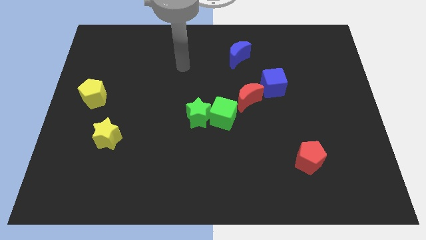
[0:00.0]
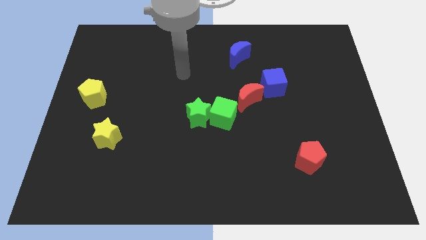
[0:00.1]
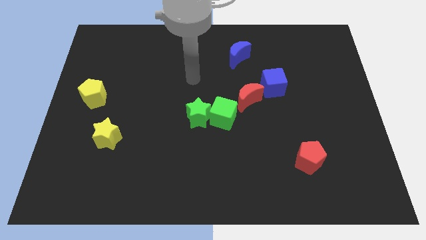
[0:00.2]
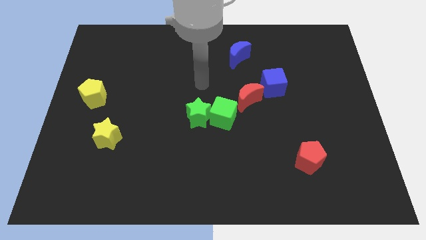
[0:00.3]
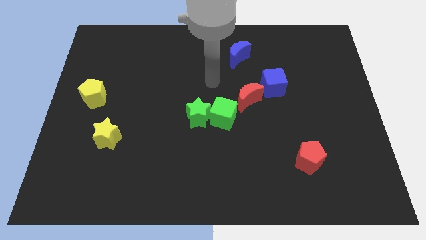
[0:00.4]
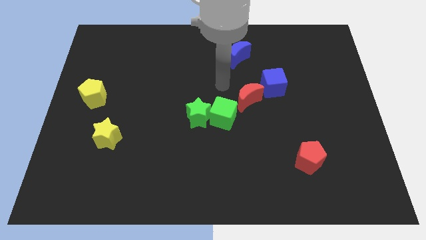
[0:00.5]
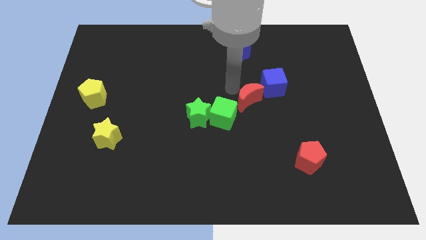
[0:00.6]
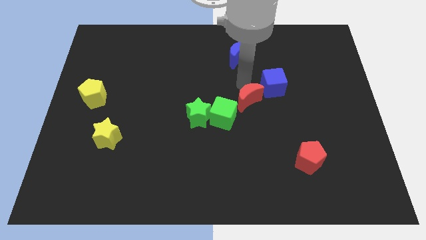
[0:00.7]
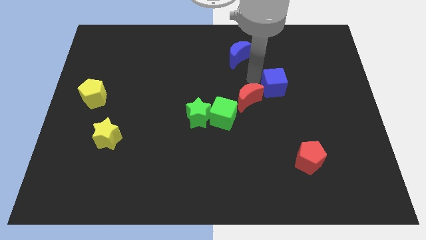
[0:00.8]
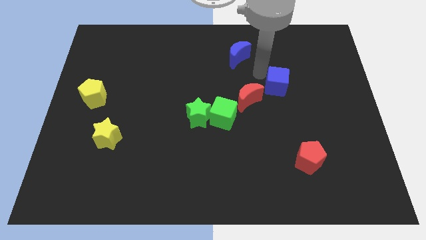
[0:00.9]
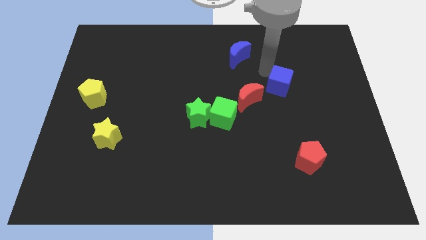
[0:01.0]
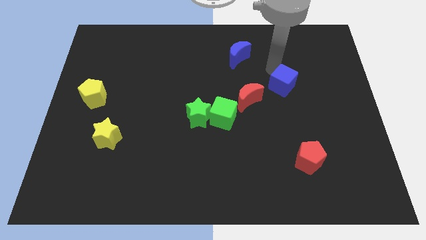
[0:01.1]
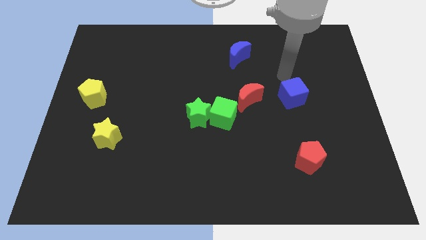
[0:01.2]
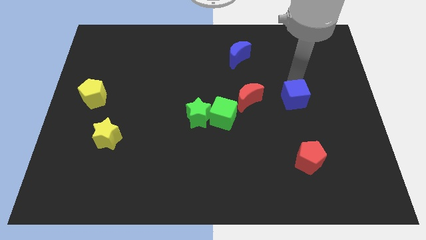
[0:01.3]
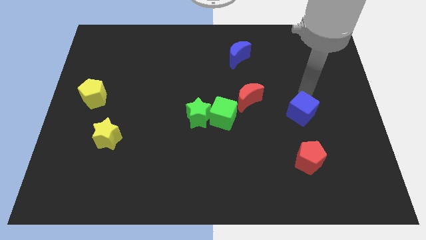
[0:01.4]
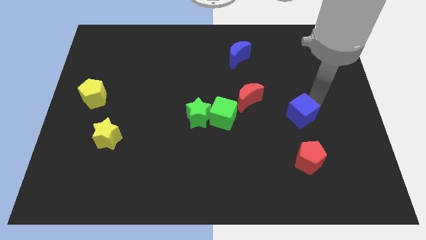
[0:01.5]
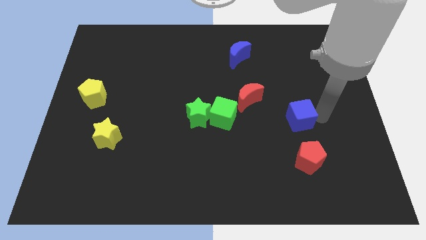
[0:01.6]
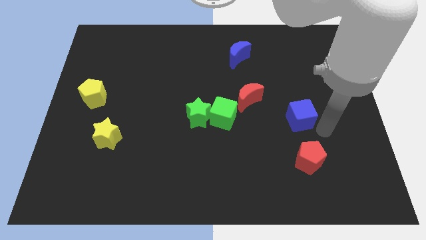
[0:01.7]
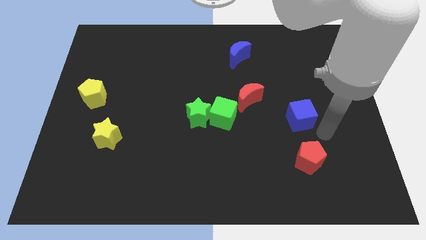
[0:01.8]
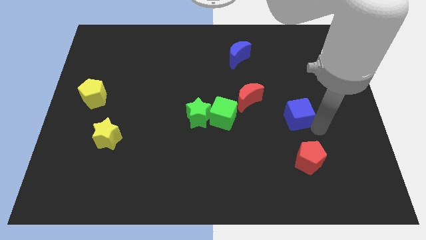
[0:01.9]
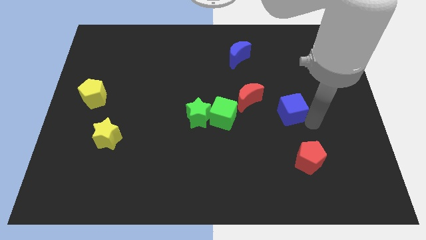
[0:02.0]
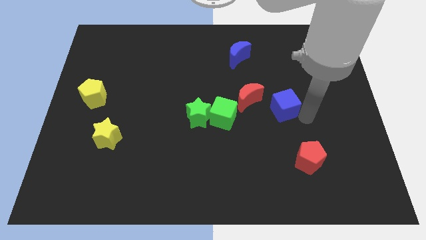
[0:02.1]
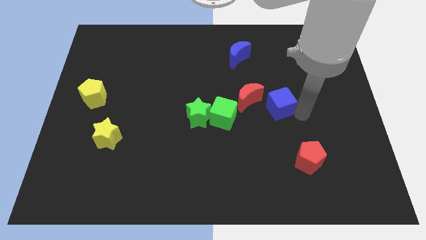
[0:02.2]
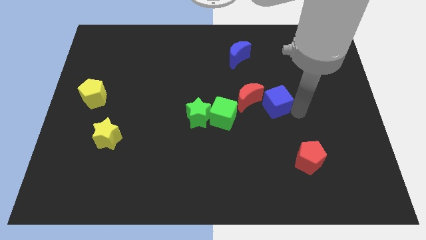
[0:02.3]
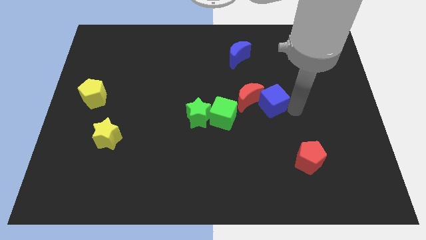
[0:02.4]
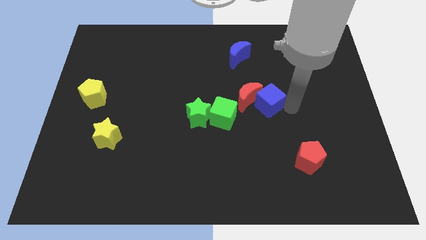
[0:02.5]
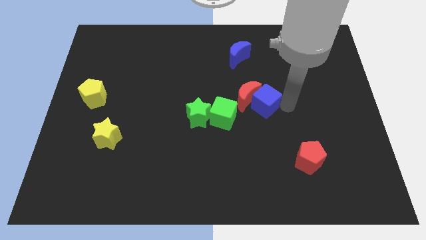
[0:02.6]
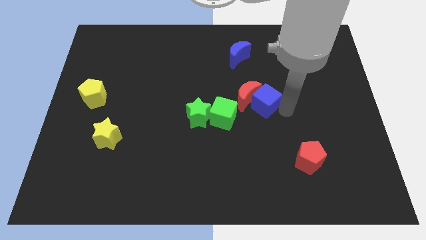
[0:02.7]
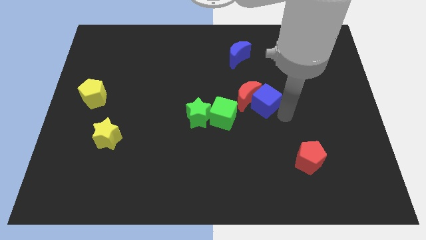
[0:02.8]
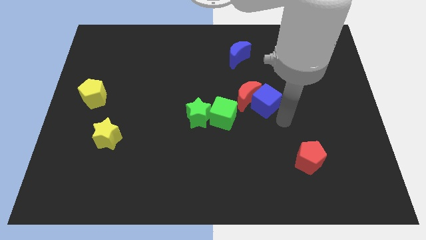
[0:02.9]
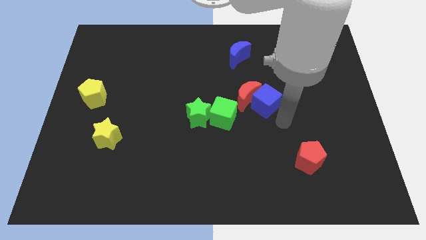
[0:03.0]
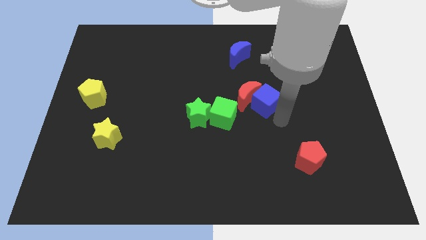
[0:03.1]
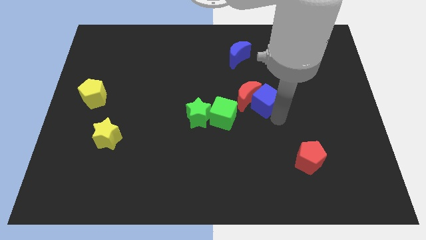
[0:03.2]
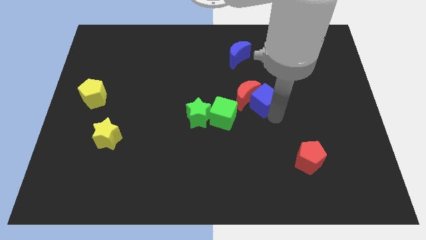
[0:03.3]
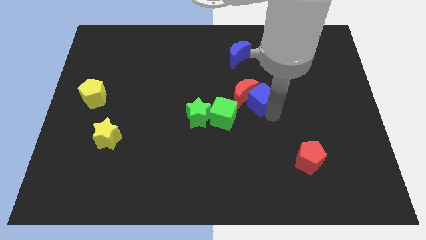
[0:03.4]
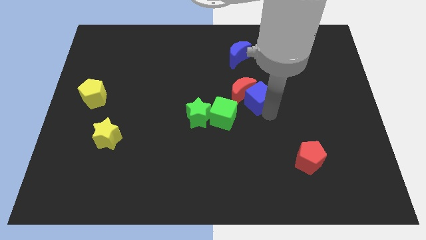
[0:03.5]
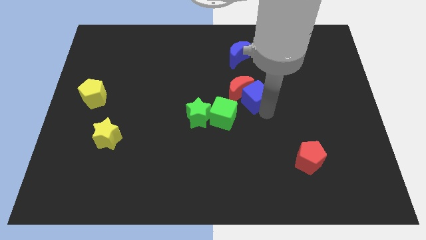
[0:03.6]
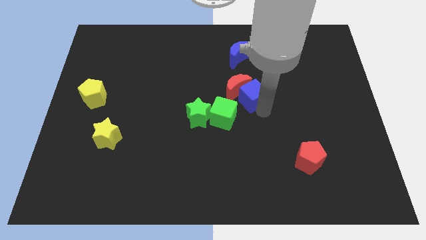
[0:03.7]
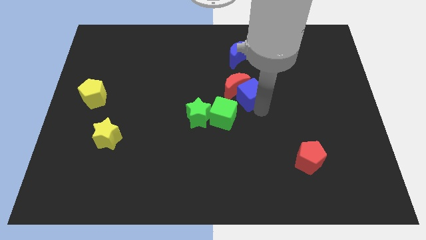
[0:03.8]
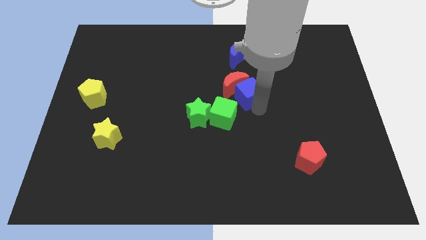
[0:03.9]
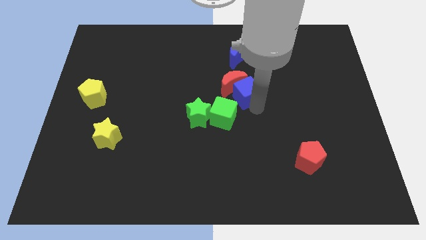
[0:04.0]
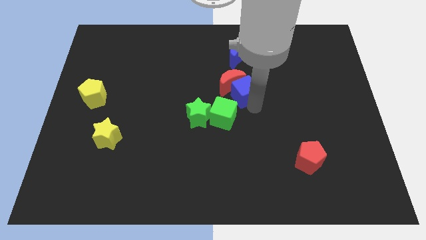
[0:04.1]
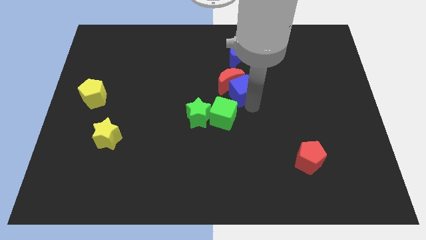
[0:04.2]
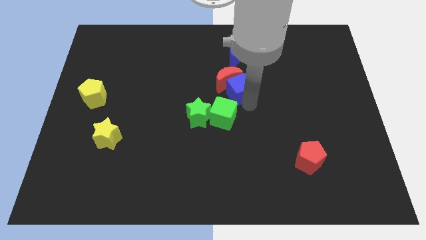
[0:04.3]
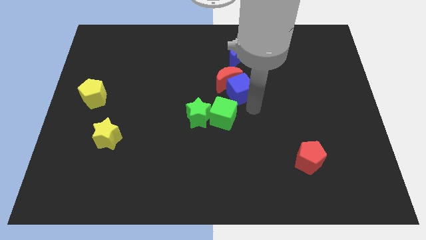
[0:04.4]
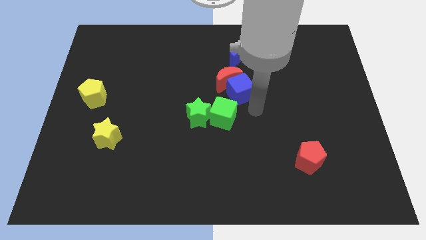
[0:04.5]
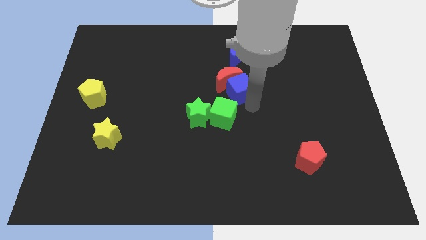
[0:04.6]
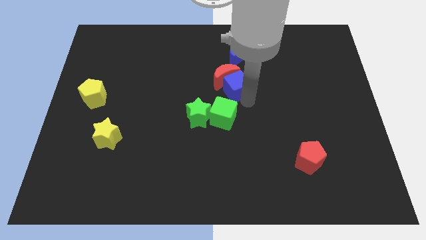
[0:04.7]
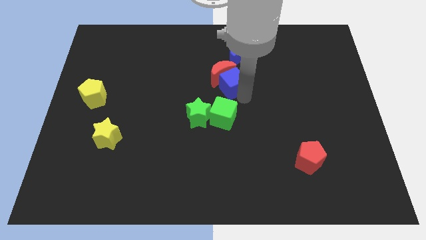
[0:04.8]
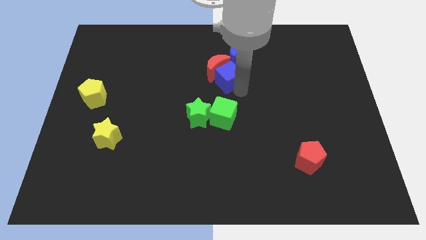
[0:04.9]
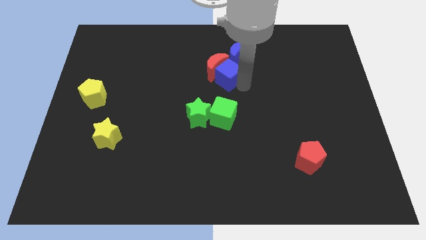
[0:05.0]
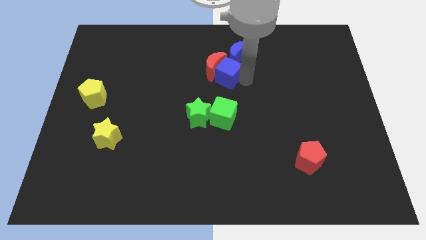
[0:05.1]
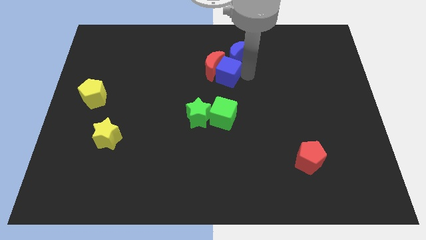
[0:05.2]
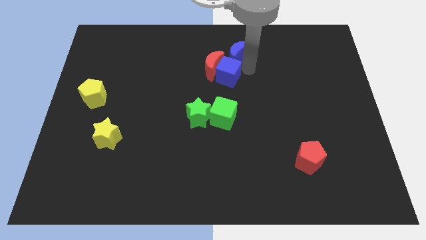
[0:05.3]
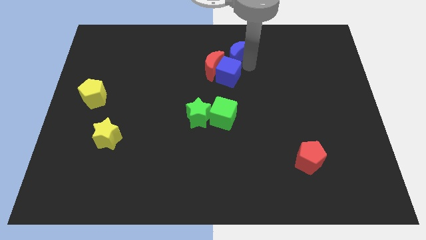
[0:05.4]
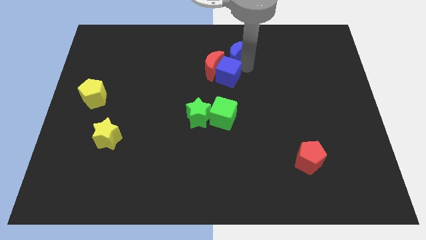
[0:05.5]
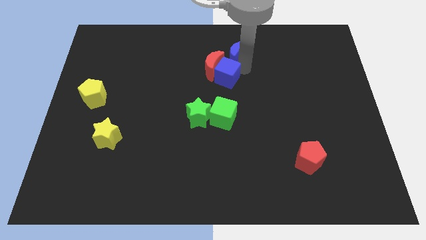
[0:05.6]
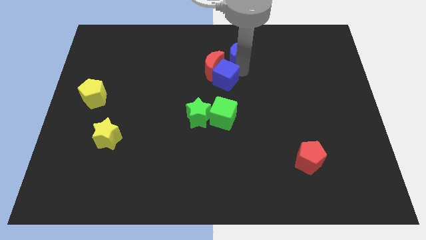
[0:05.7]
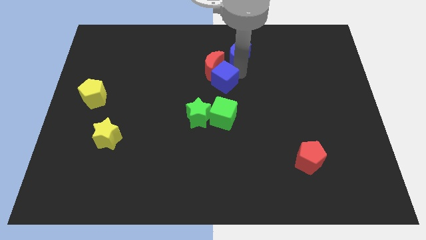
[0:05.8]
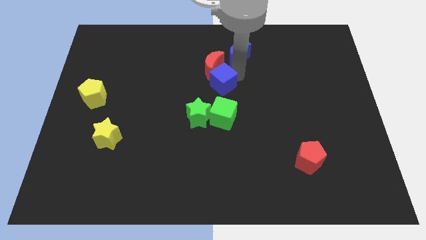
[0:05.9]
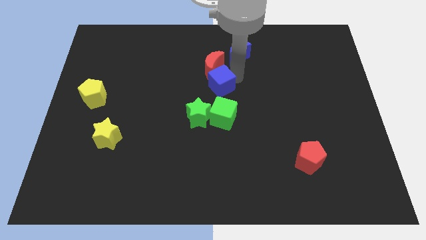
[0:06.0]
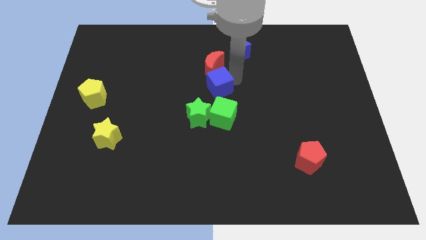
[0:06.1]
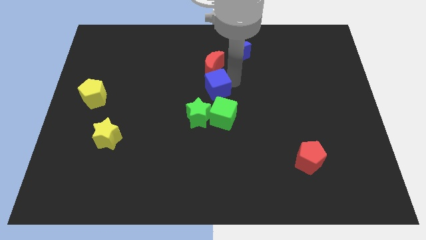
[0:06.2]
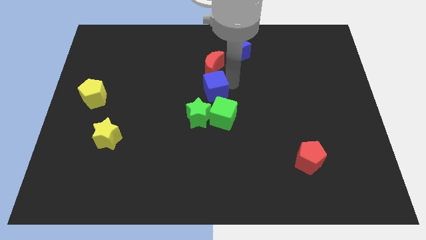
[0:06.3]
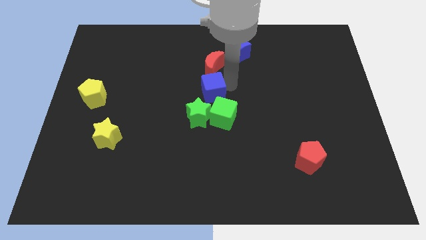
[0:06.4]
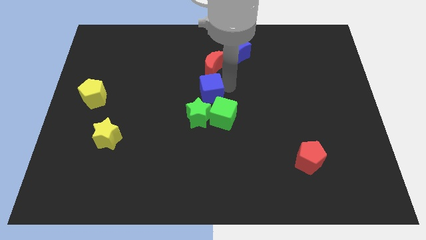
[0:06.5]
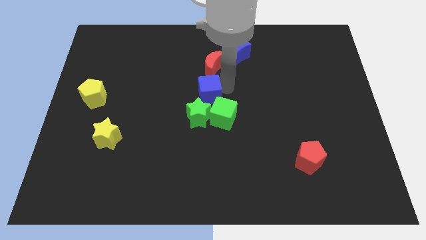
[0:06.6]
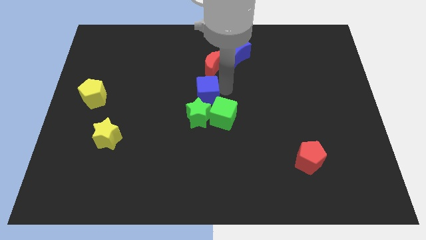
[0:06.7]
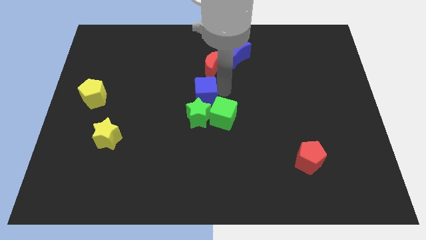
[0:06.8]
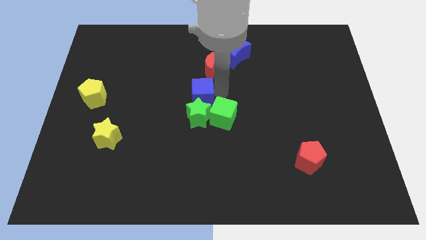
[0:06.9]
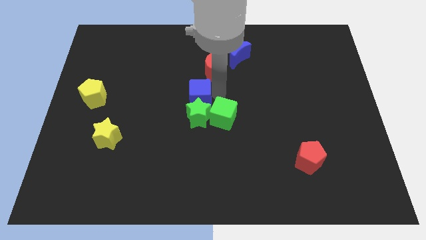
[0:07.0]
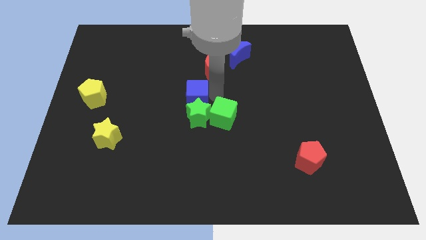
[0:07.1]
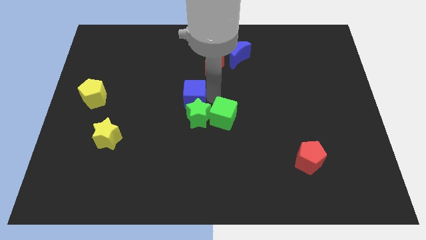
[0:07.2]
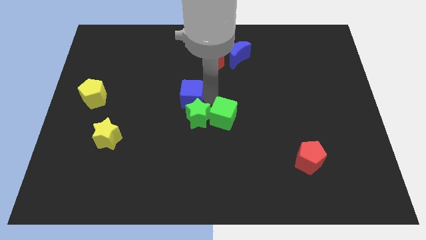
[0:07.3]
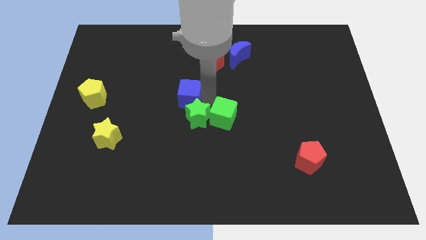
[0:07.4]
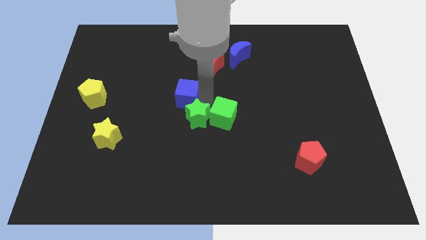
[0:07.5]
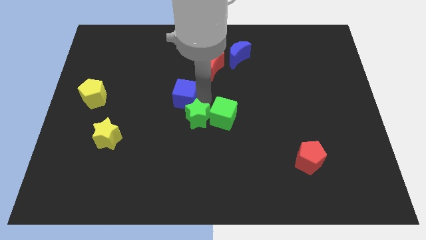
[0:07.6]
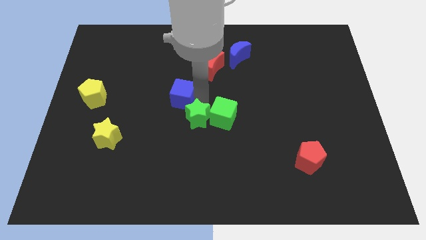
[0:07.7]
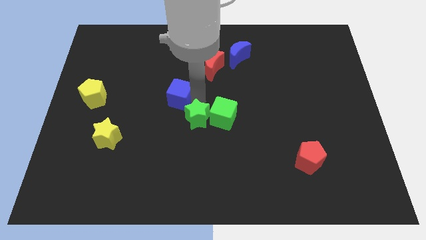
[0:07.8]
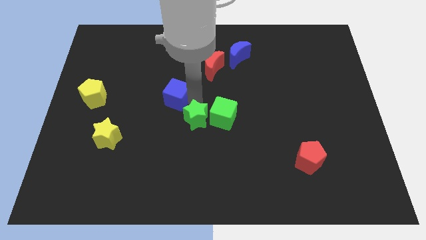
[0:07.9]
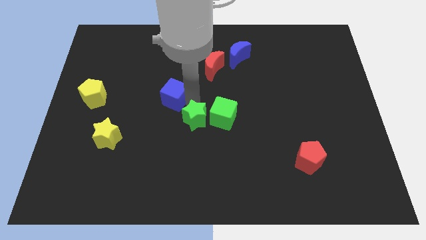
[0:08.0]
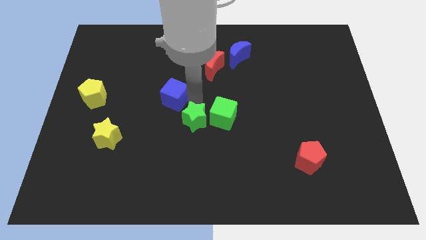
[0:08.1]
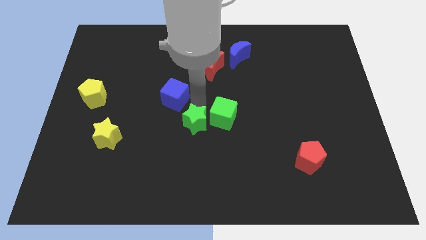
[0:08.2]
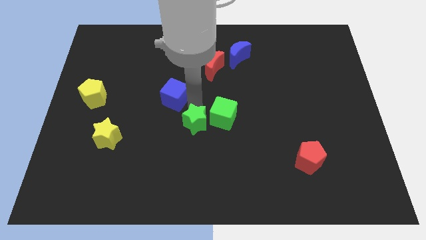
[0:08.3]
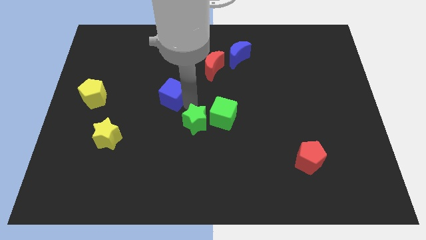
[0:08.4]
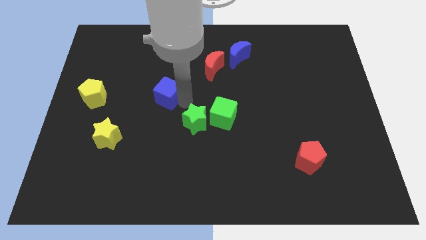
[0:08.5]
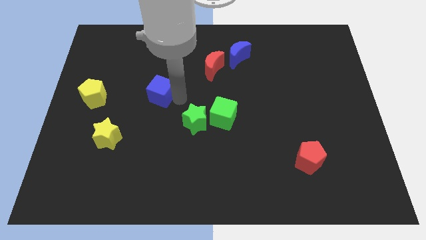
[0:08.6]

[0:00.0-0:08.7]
move the blue cube to the right side of the yellow pentagon
